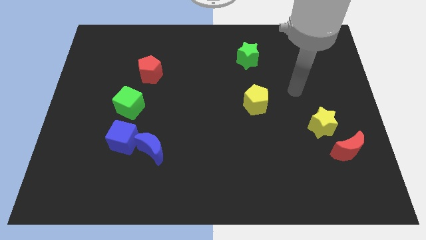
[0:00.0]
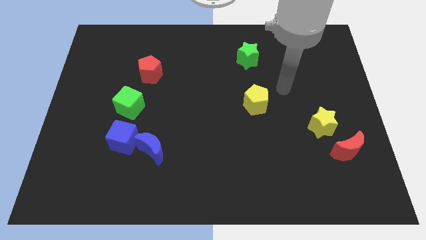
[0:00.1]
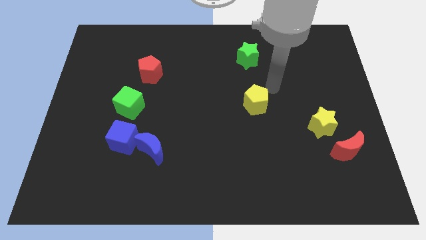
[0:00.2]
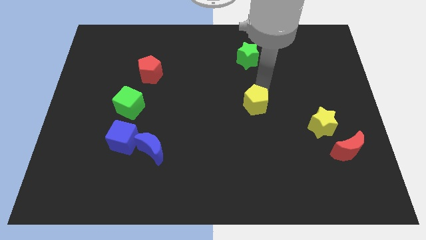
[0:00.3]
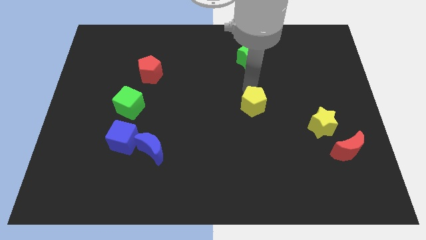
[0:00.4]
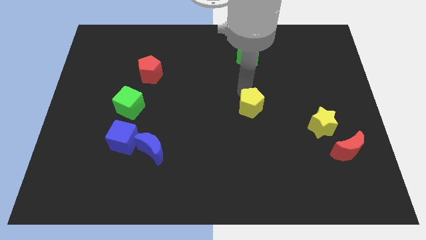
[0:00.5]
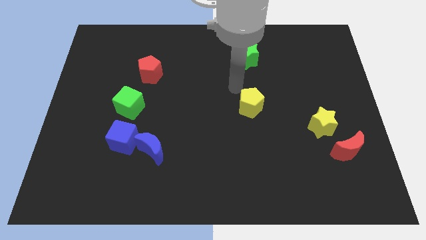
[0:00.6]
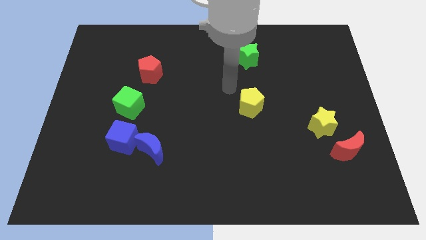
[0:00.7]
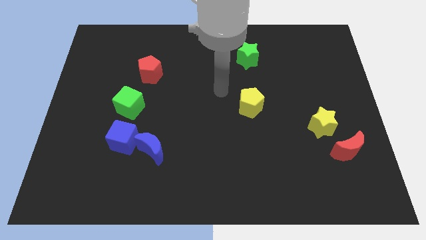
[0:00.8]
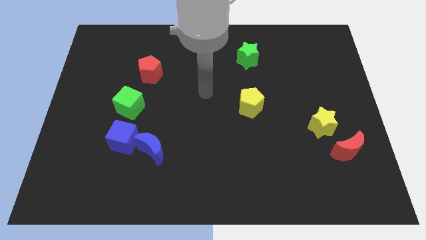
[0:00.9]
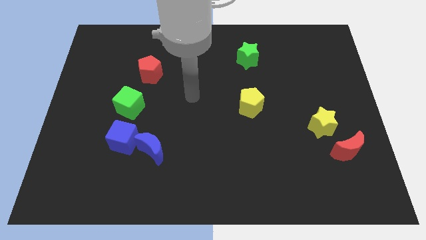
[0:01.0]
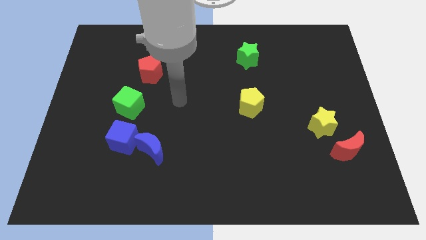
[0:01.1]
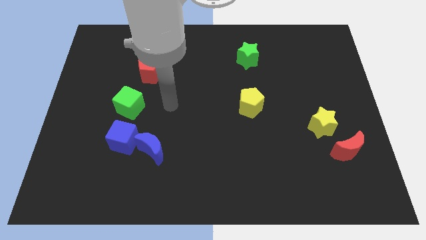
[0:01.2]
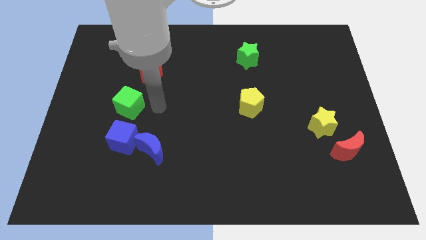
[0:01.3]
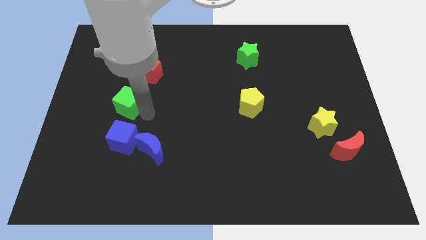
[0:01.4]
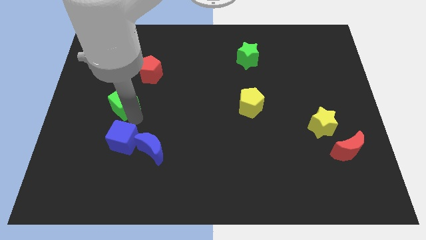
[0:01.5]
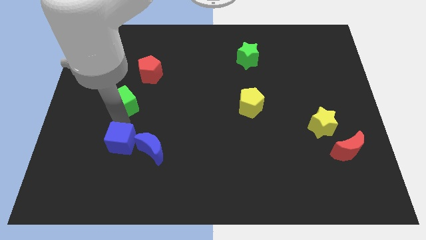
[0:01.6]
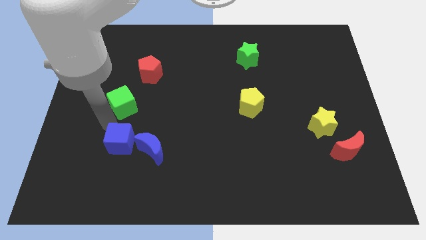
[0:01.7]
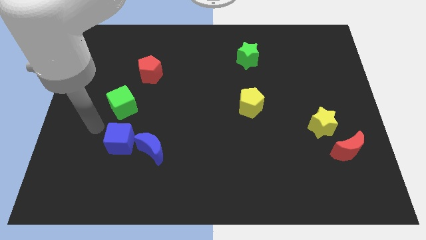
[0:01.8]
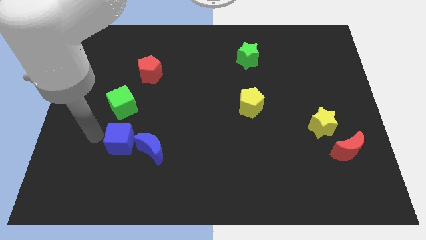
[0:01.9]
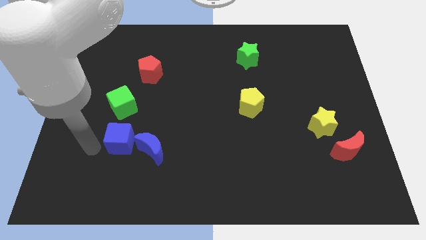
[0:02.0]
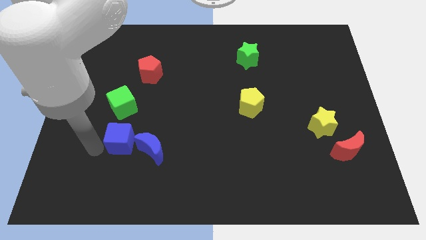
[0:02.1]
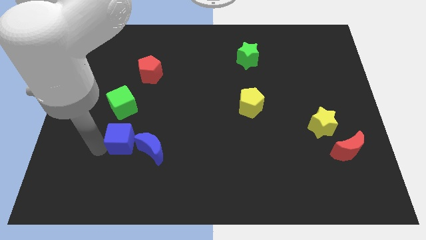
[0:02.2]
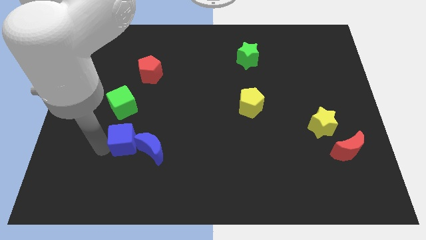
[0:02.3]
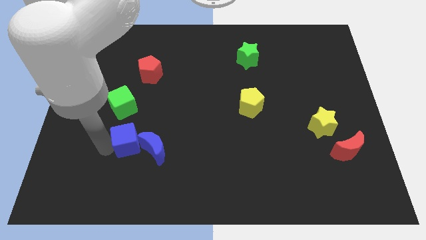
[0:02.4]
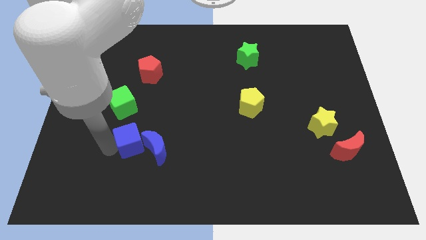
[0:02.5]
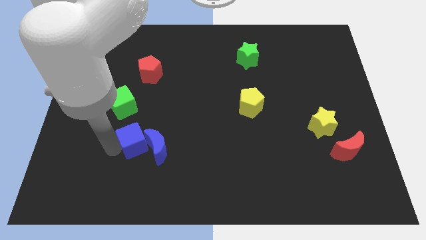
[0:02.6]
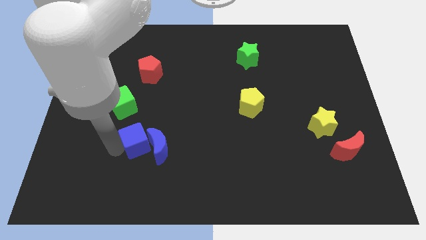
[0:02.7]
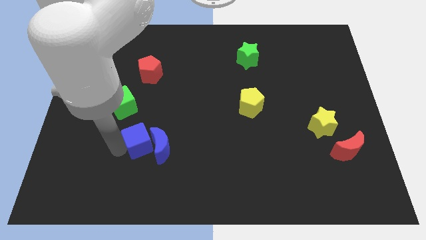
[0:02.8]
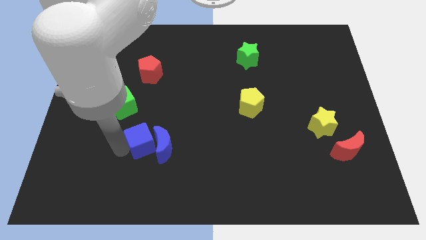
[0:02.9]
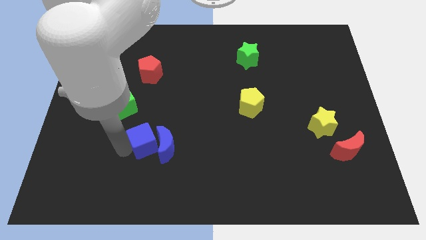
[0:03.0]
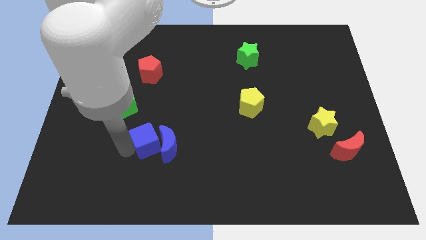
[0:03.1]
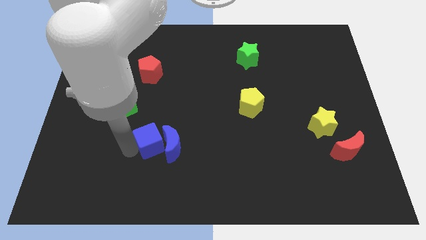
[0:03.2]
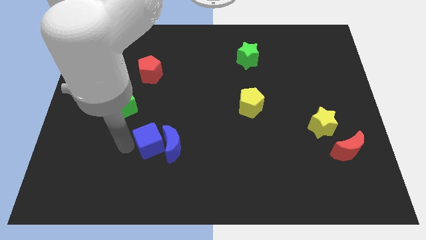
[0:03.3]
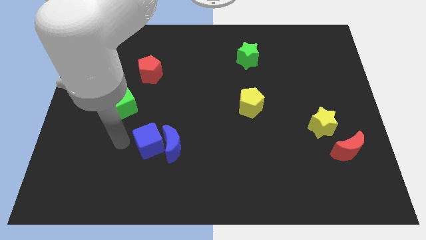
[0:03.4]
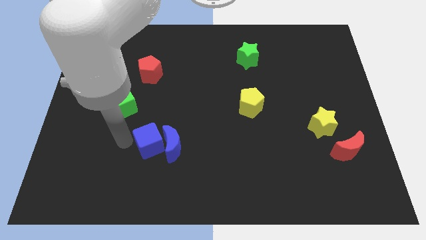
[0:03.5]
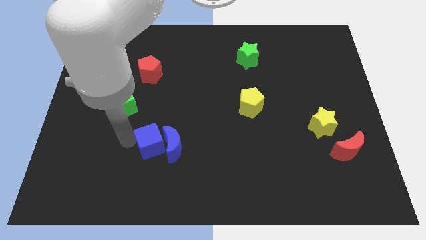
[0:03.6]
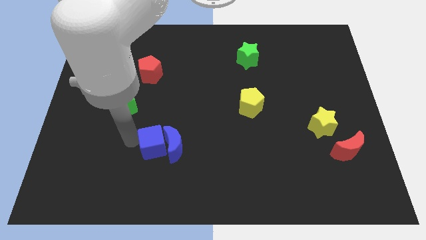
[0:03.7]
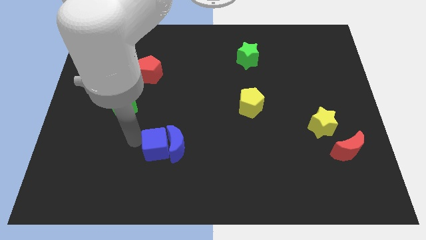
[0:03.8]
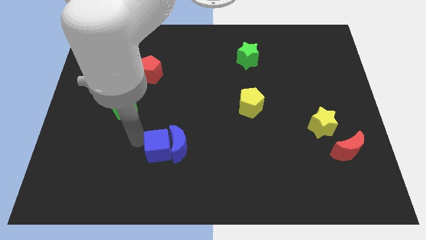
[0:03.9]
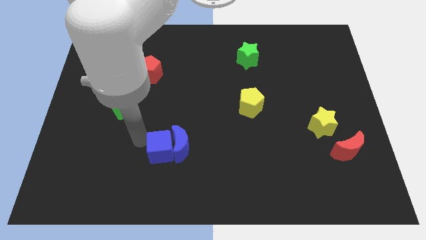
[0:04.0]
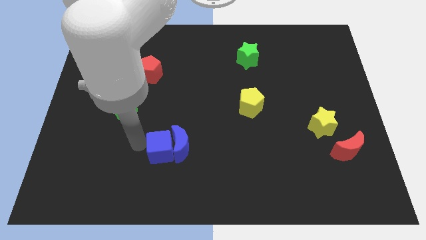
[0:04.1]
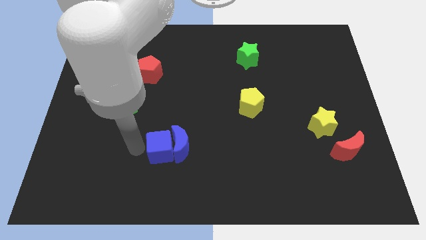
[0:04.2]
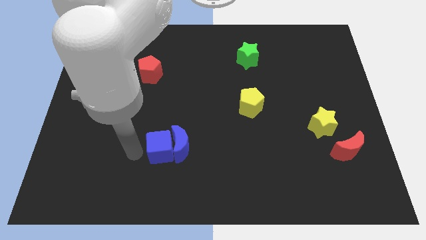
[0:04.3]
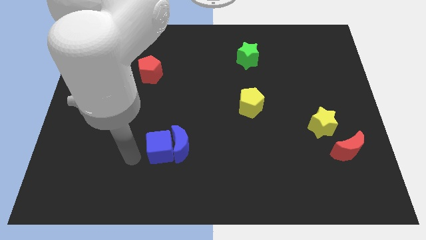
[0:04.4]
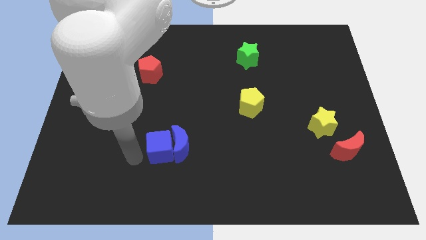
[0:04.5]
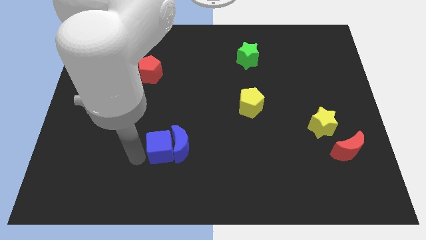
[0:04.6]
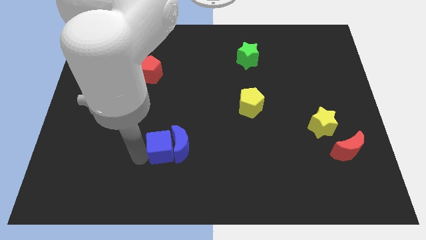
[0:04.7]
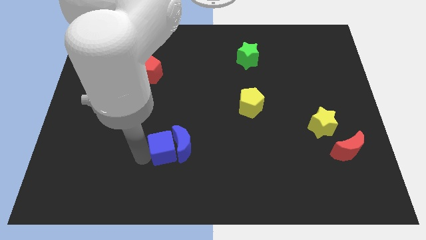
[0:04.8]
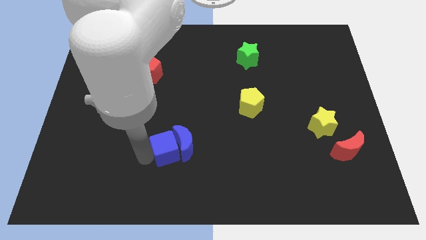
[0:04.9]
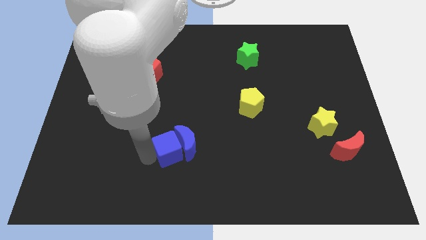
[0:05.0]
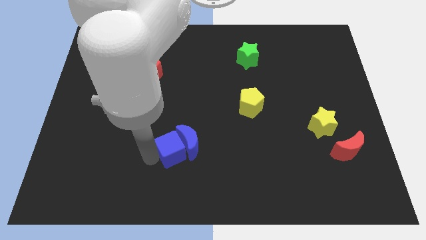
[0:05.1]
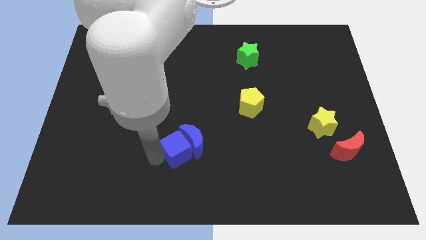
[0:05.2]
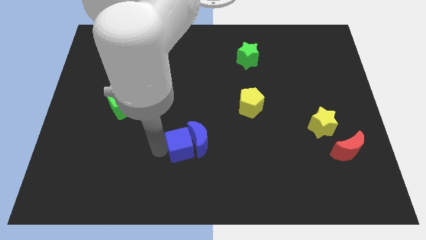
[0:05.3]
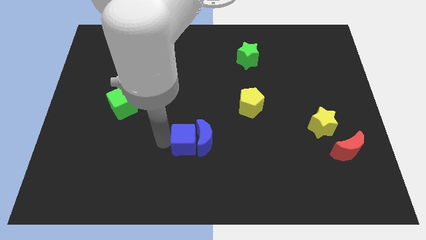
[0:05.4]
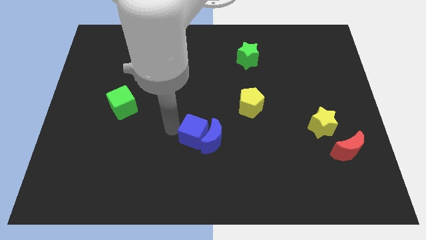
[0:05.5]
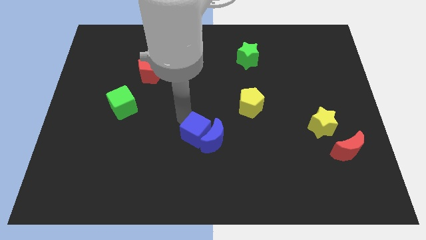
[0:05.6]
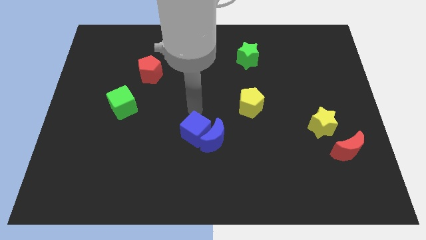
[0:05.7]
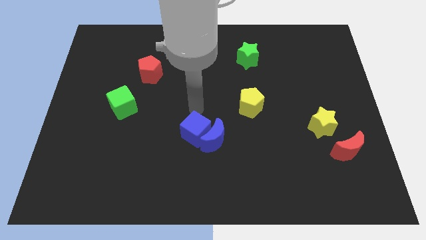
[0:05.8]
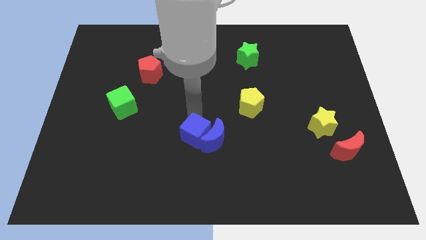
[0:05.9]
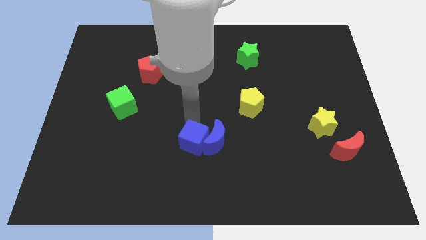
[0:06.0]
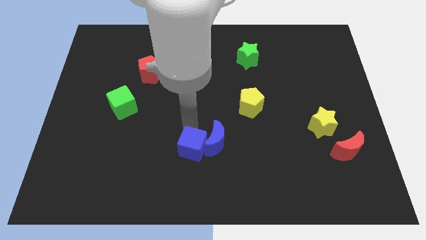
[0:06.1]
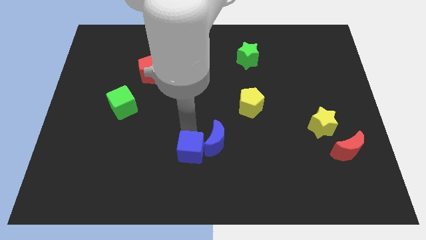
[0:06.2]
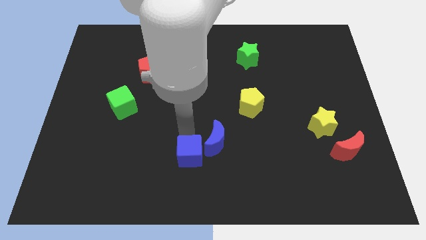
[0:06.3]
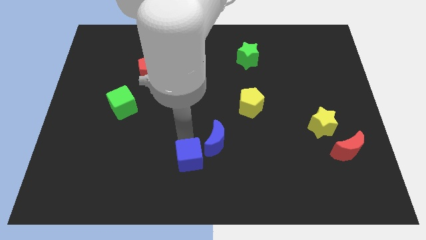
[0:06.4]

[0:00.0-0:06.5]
put the blue cube to the bottom
